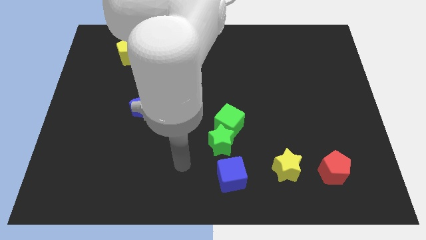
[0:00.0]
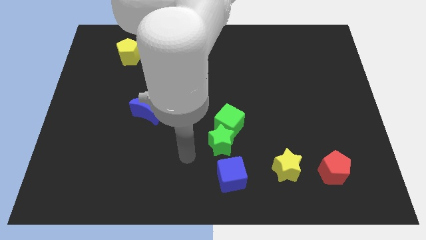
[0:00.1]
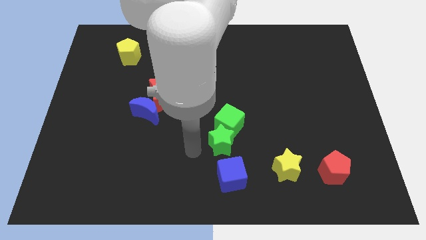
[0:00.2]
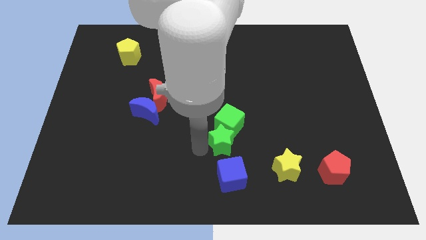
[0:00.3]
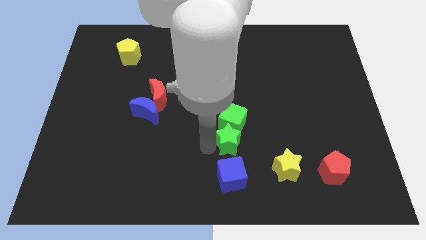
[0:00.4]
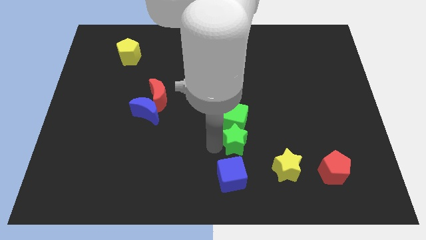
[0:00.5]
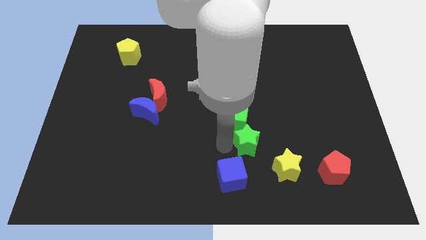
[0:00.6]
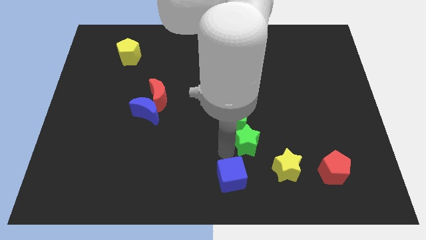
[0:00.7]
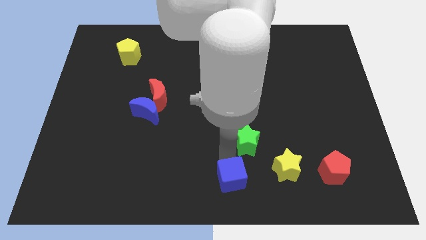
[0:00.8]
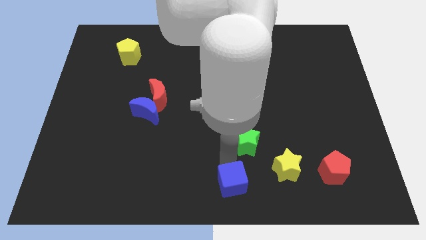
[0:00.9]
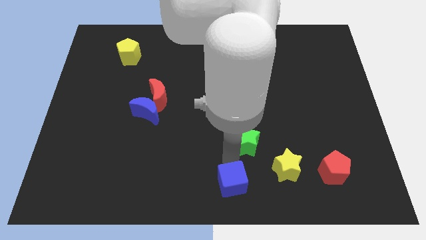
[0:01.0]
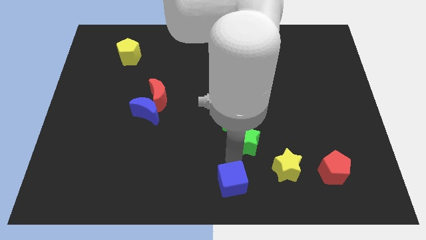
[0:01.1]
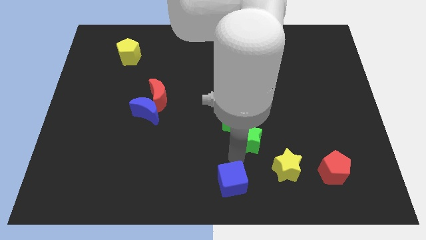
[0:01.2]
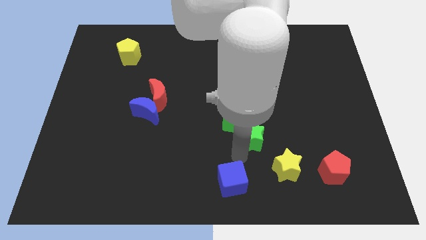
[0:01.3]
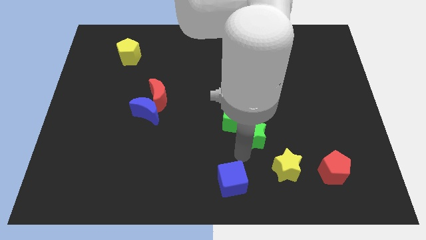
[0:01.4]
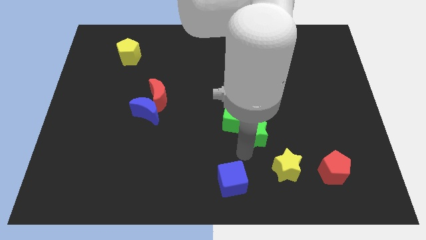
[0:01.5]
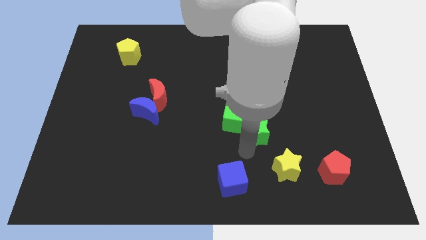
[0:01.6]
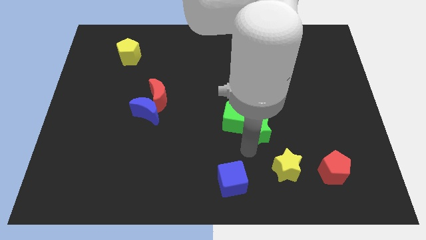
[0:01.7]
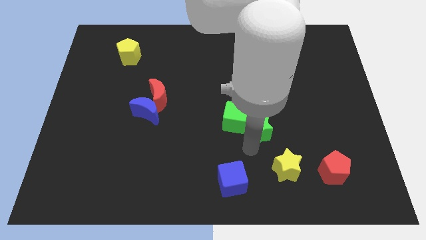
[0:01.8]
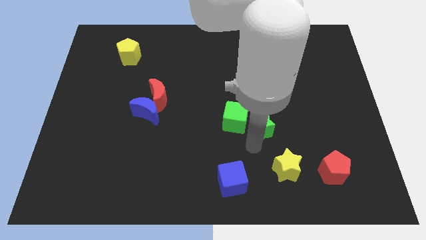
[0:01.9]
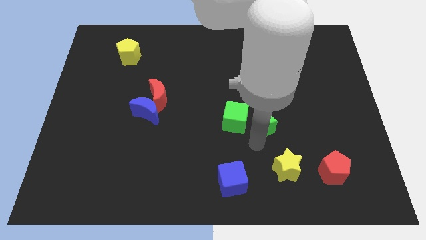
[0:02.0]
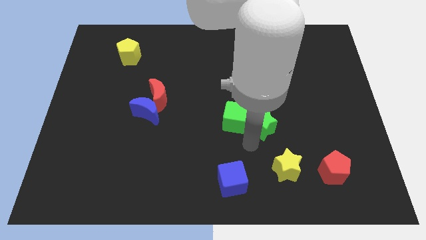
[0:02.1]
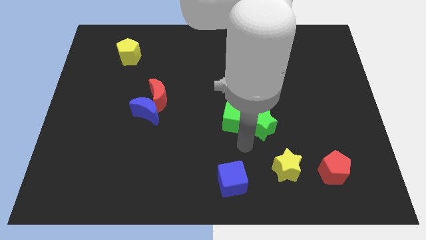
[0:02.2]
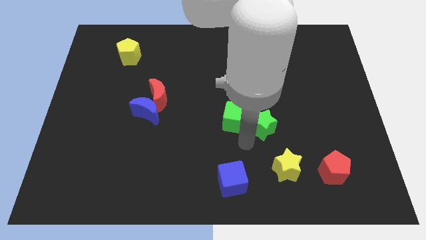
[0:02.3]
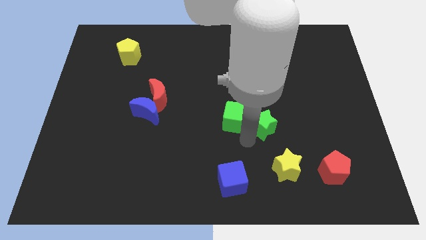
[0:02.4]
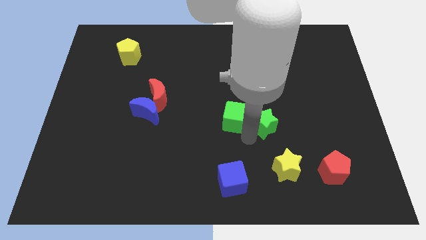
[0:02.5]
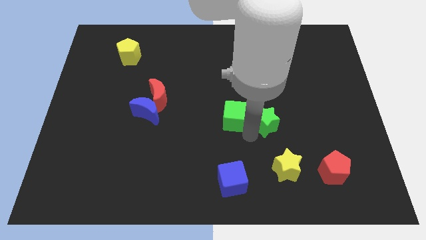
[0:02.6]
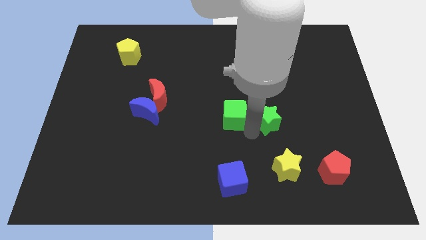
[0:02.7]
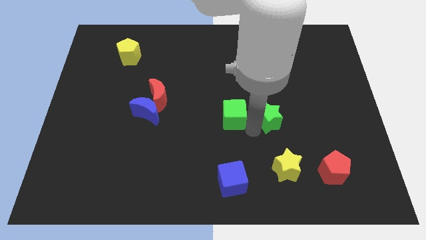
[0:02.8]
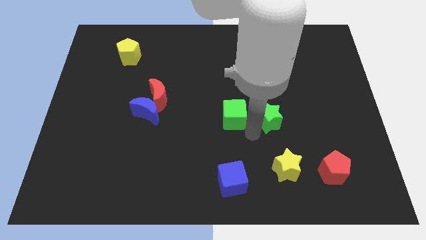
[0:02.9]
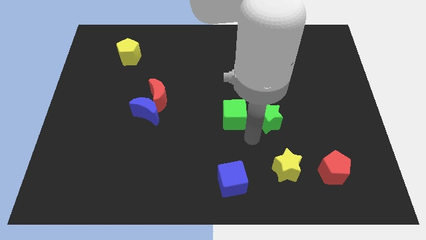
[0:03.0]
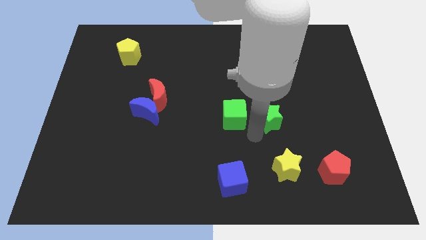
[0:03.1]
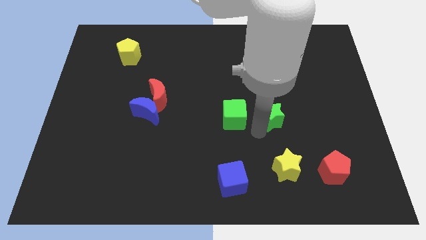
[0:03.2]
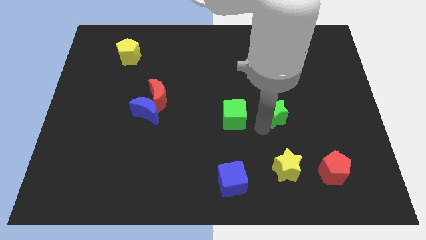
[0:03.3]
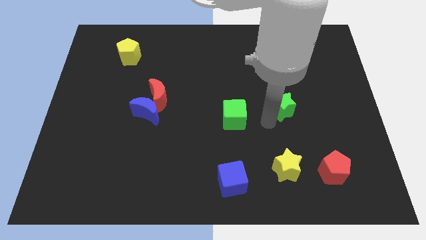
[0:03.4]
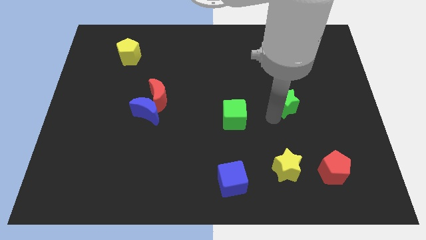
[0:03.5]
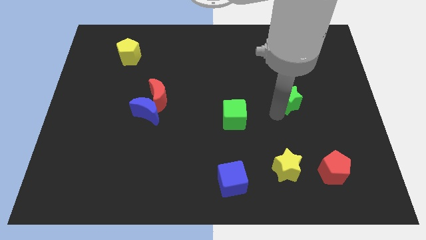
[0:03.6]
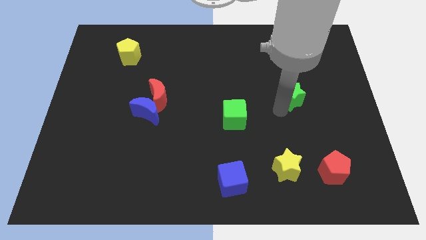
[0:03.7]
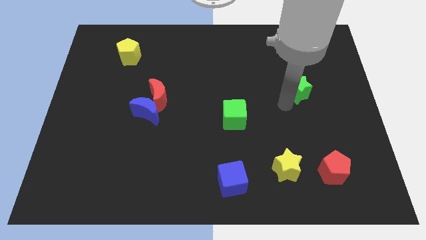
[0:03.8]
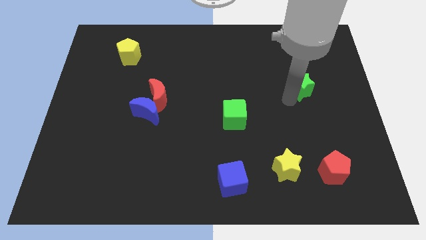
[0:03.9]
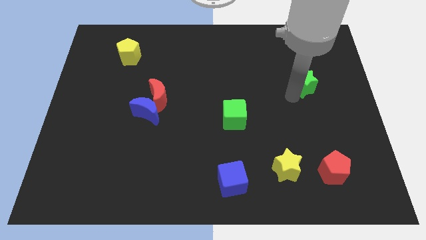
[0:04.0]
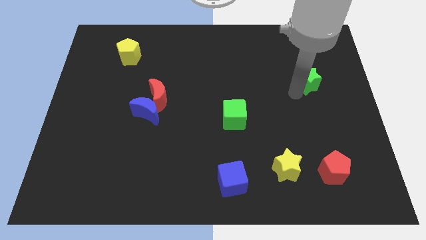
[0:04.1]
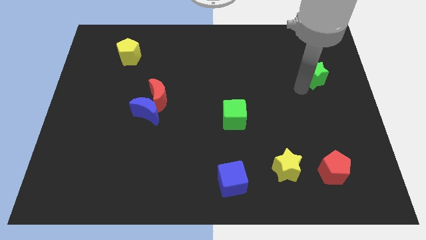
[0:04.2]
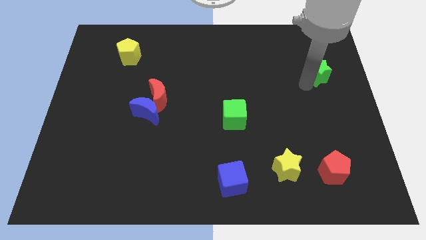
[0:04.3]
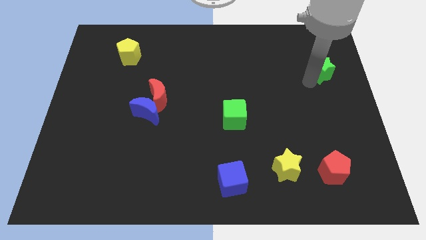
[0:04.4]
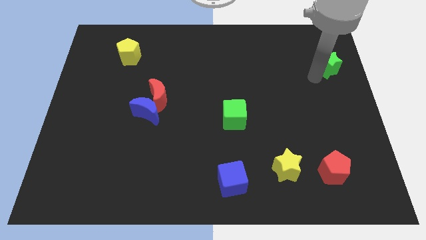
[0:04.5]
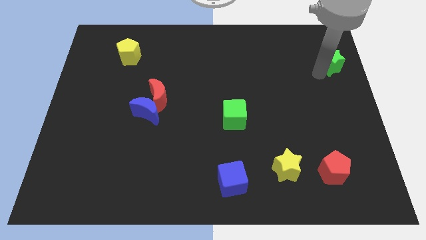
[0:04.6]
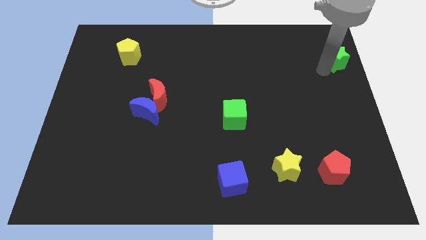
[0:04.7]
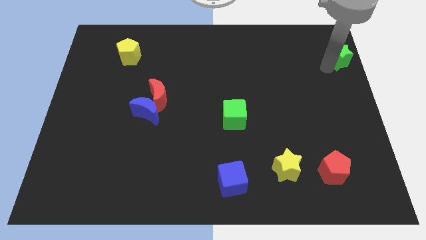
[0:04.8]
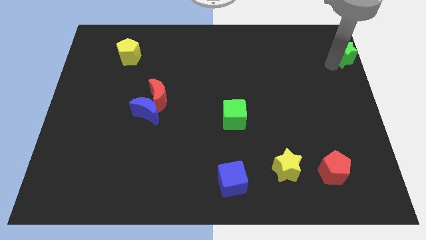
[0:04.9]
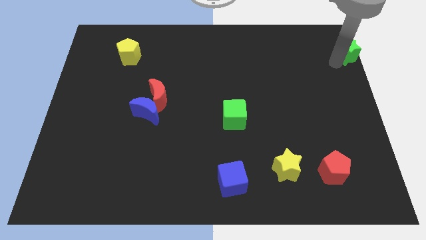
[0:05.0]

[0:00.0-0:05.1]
slide the green star to the top right of the board
